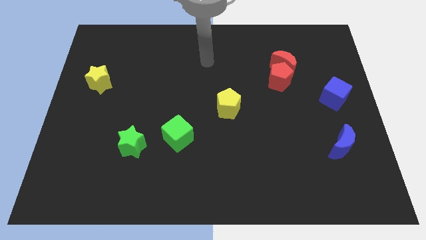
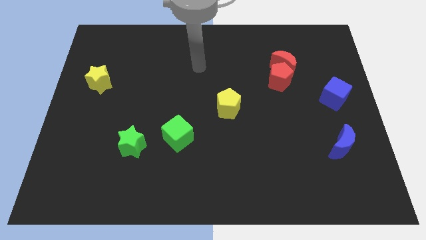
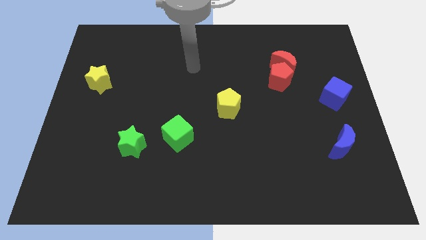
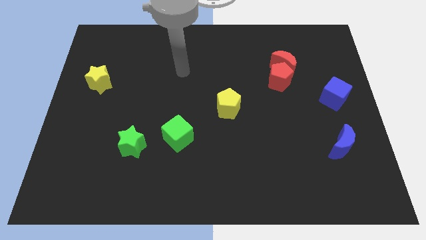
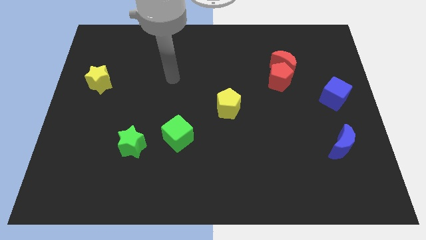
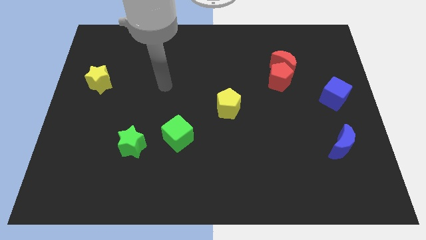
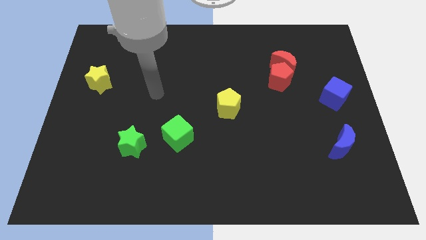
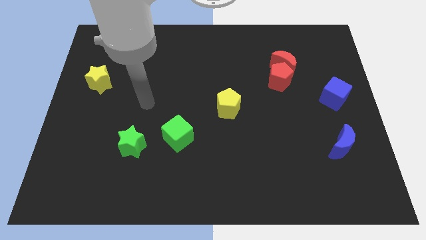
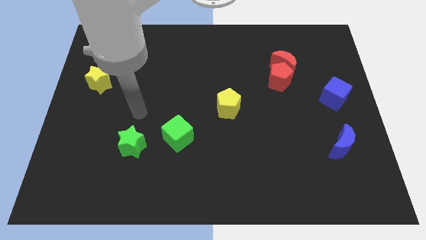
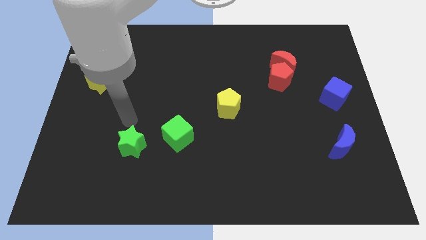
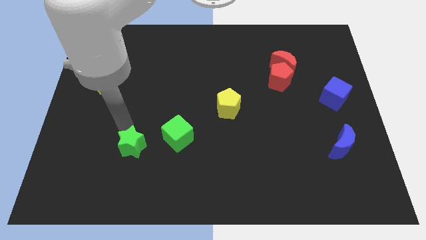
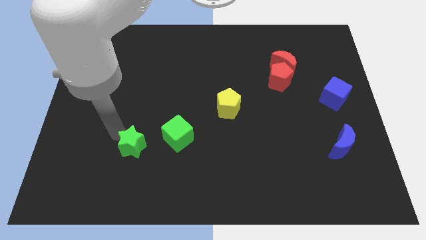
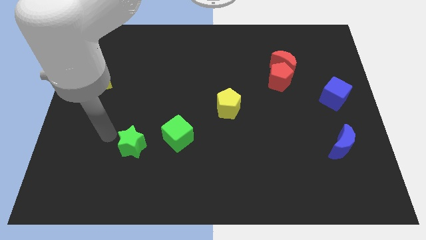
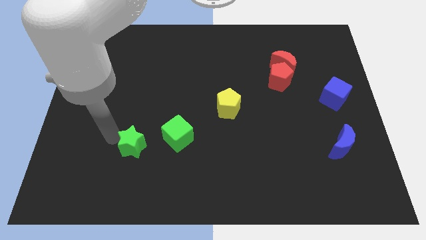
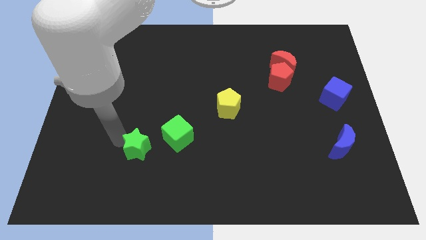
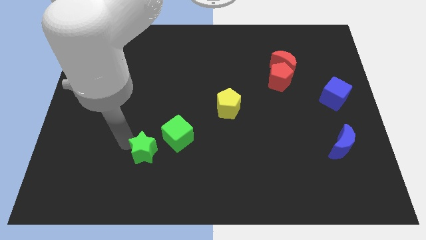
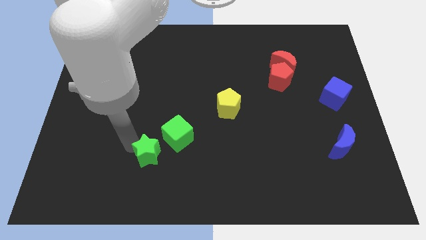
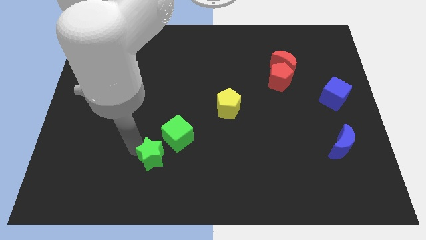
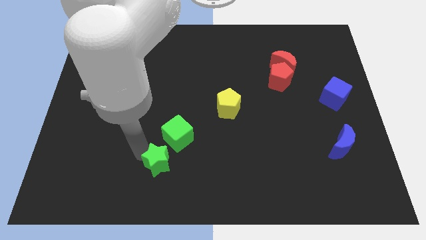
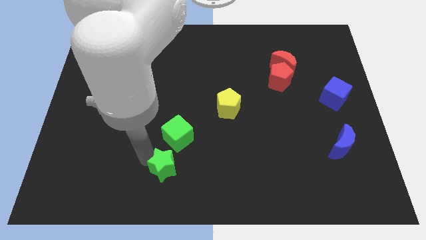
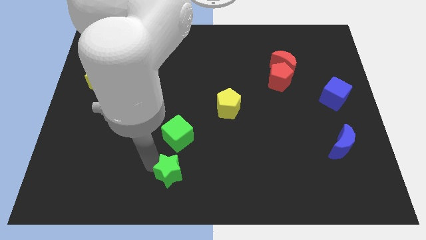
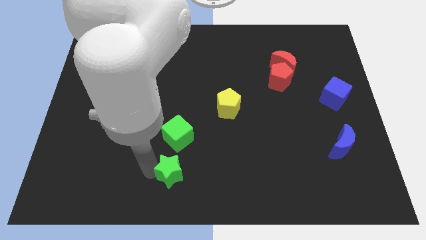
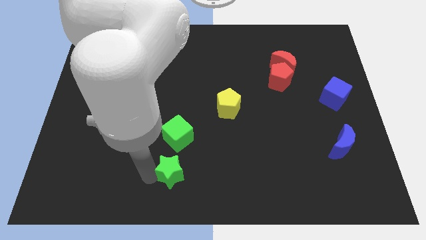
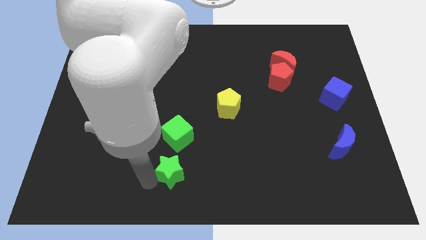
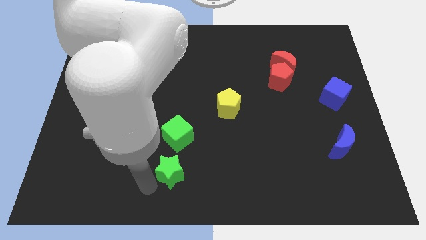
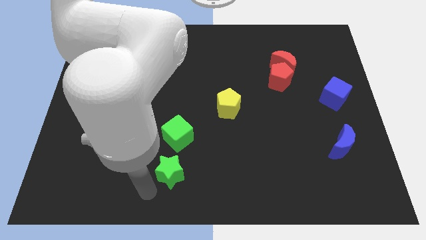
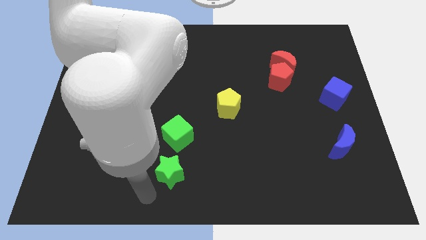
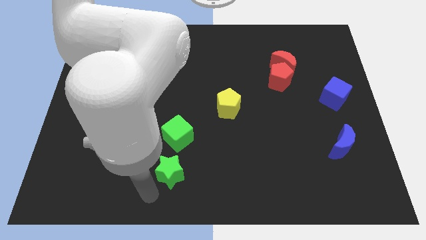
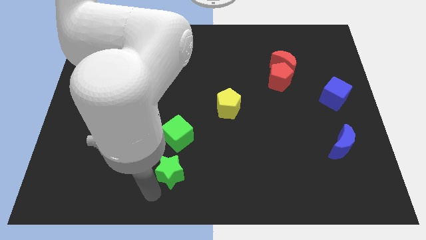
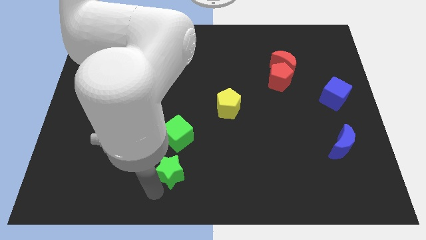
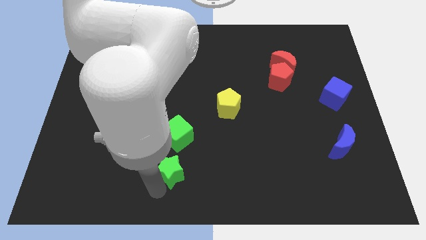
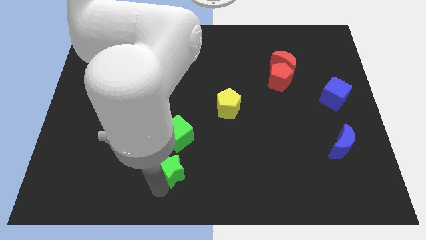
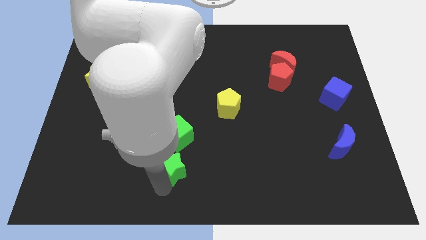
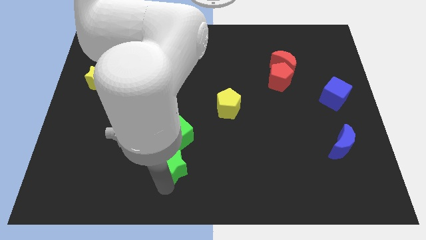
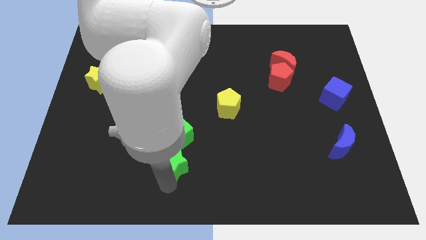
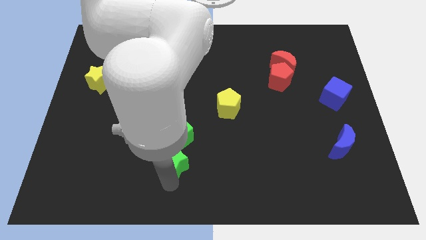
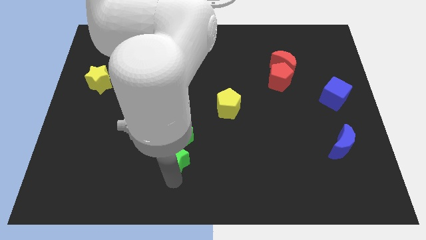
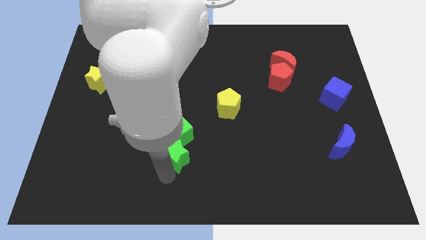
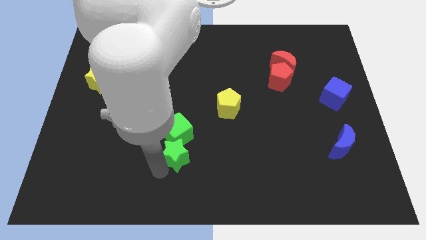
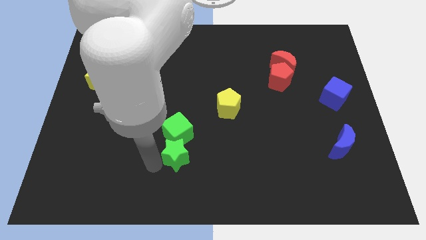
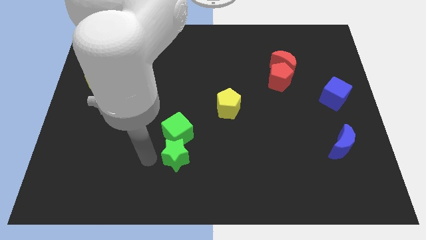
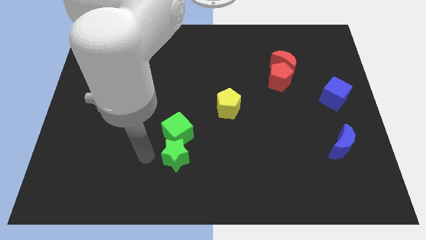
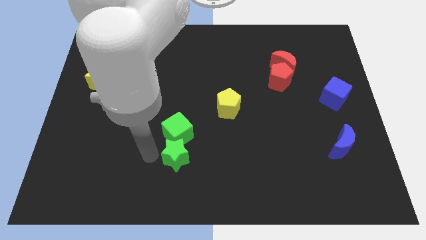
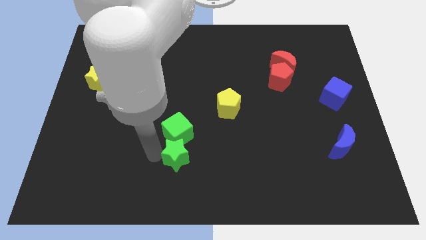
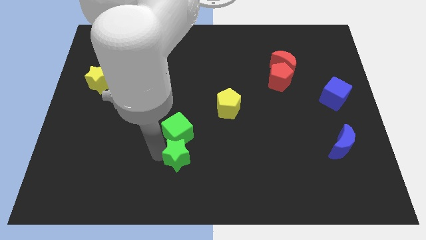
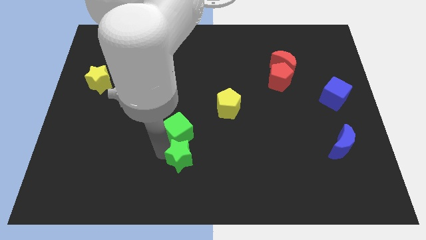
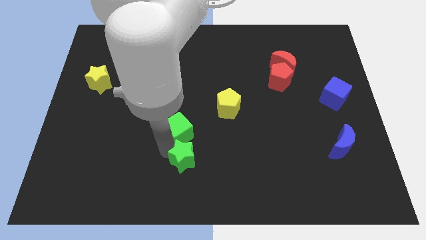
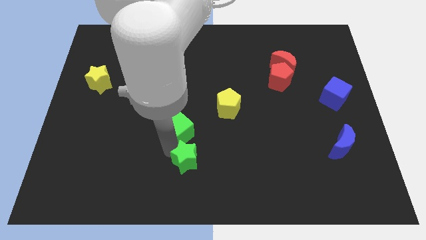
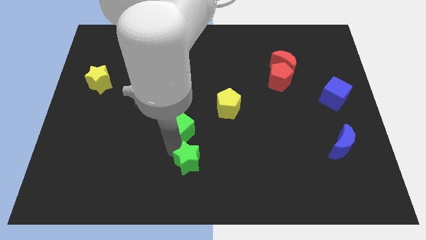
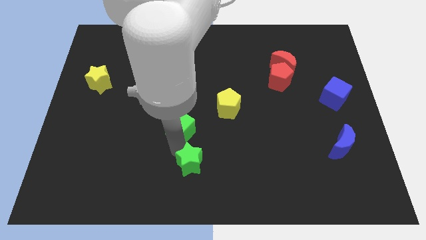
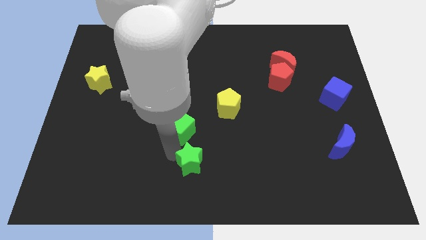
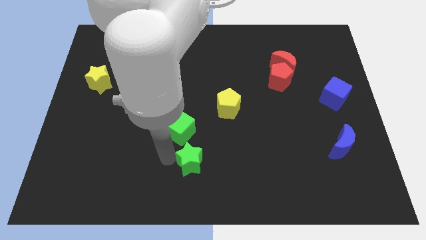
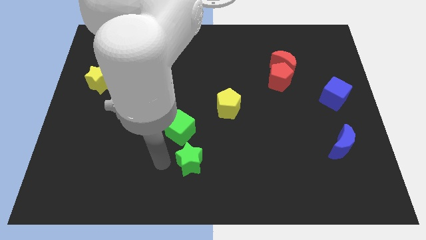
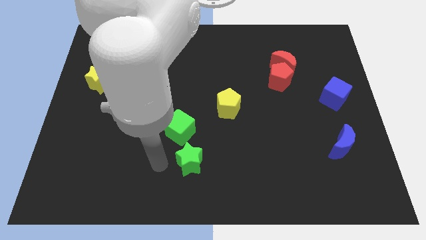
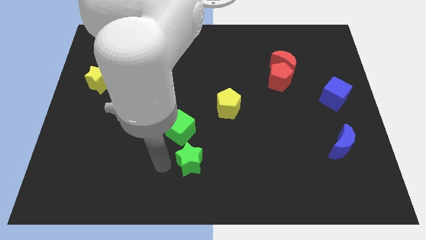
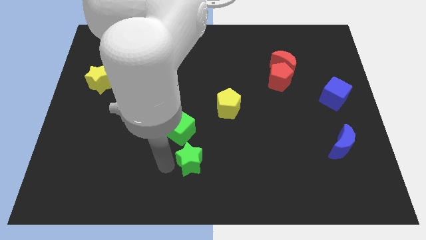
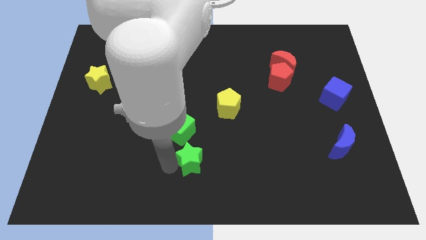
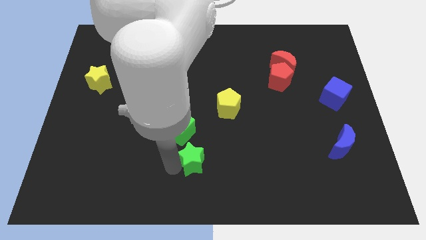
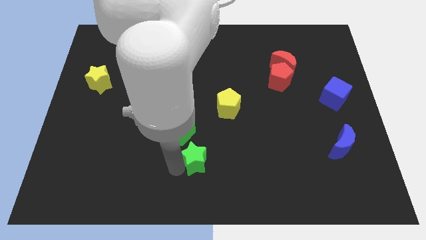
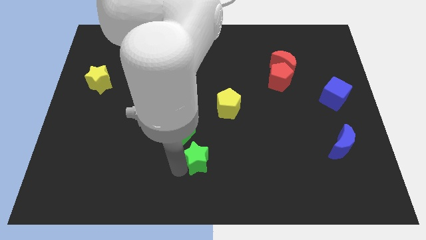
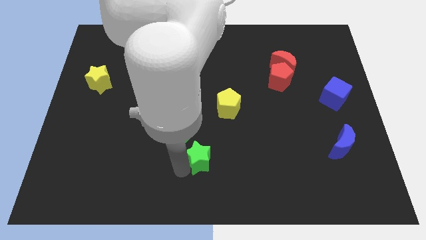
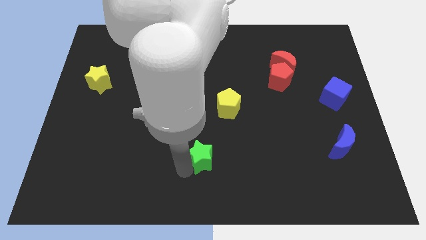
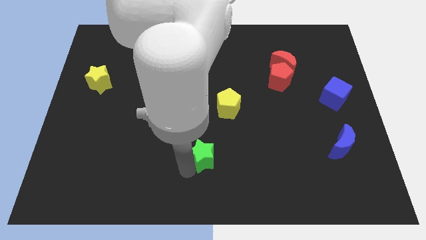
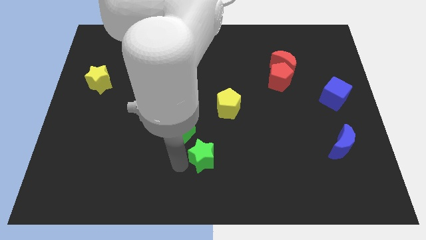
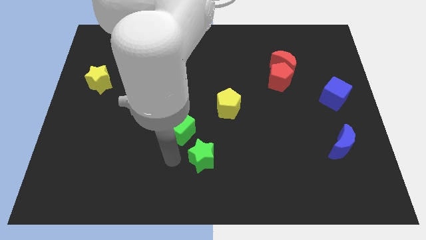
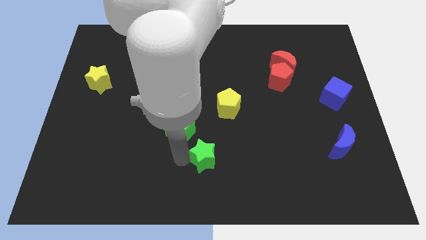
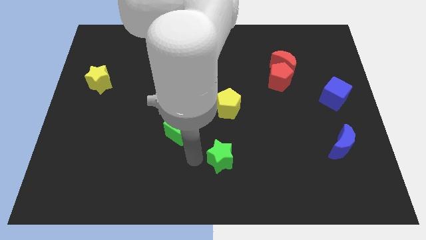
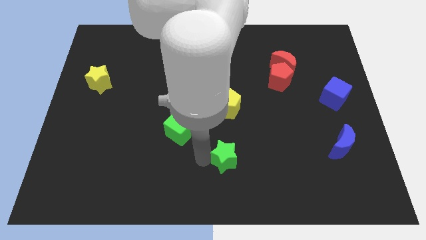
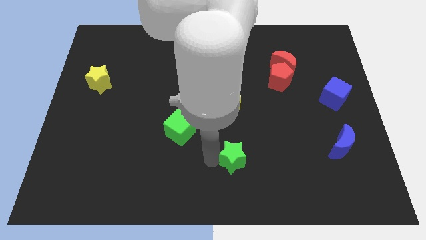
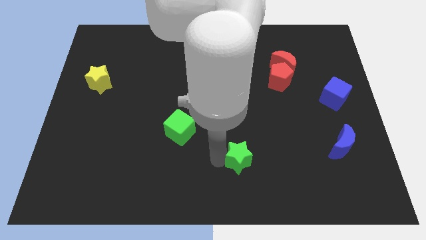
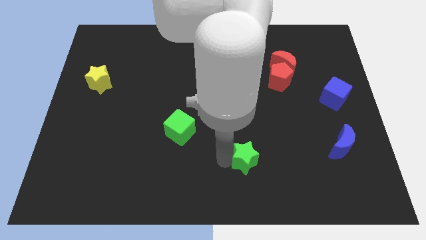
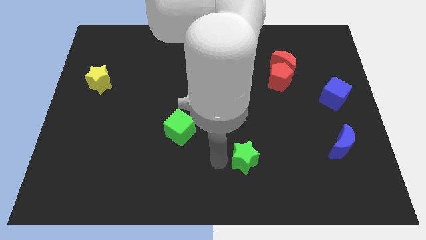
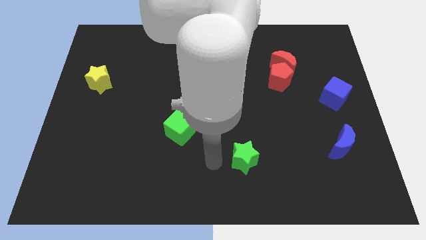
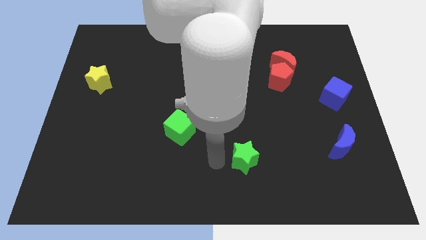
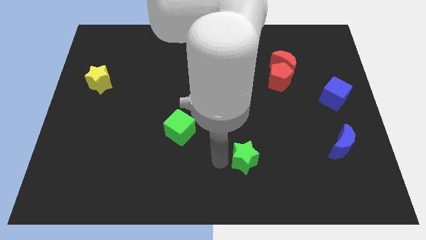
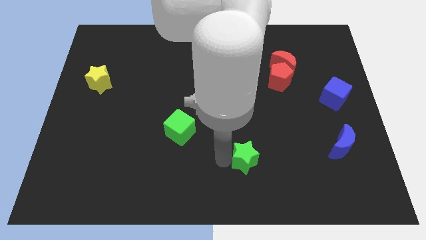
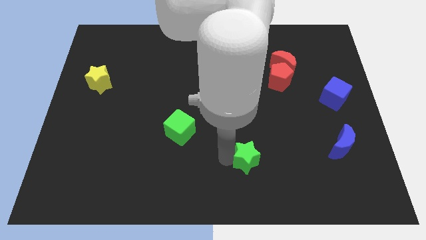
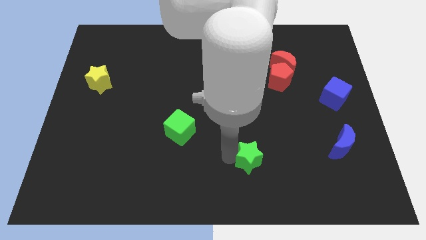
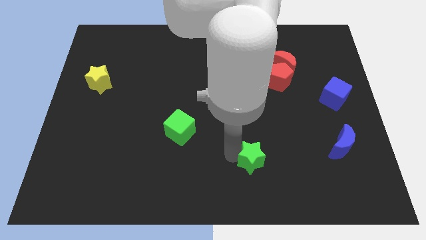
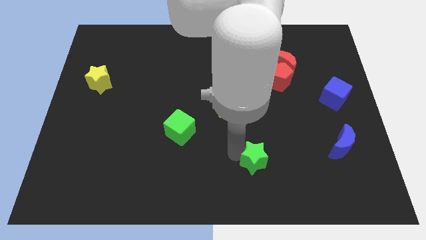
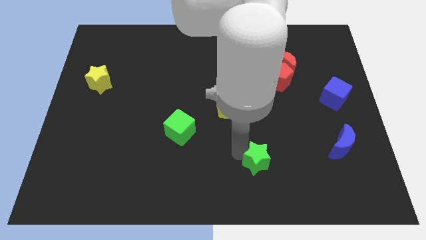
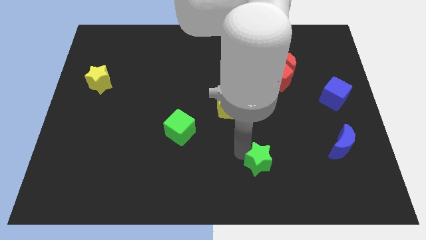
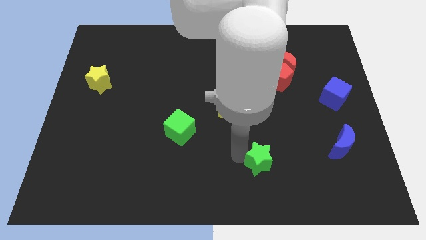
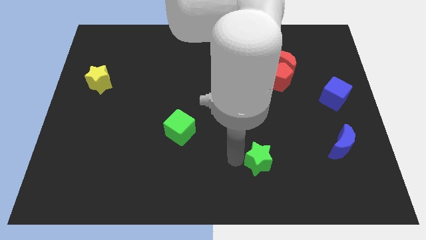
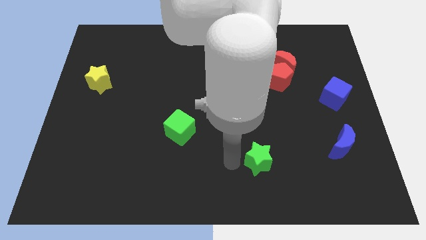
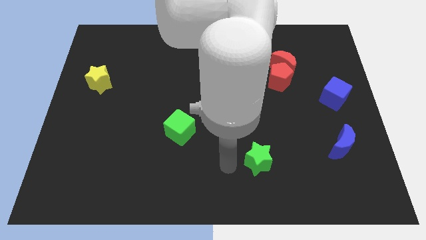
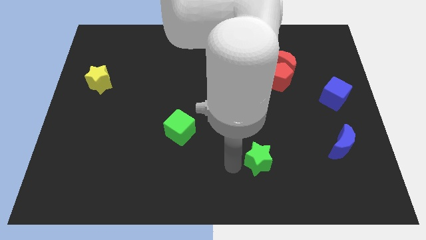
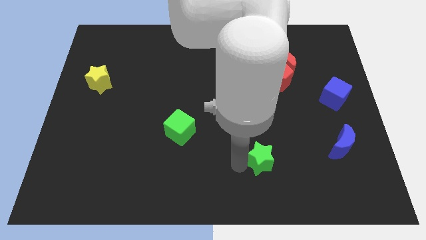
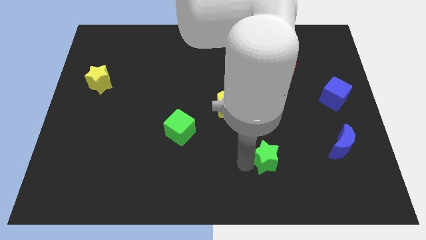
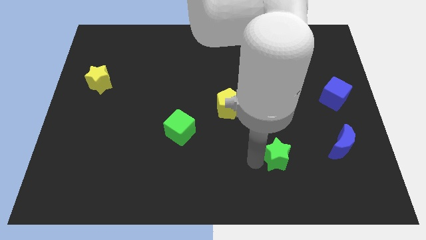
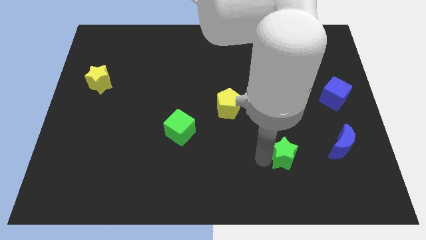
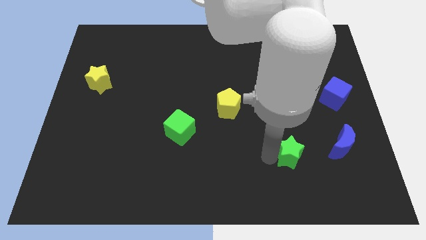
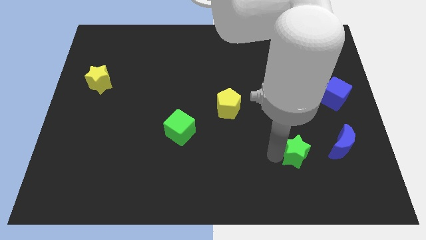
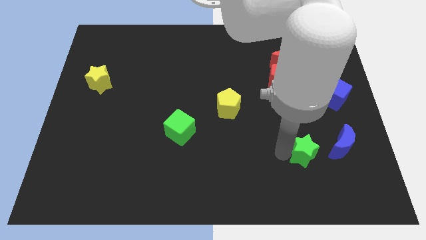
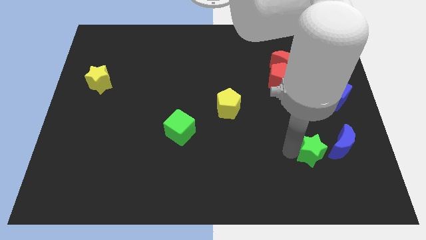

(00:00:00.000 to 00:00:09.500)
put the green star diagonally down and to the left of the blue moon
